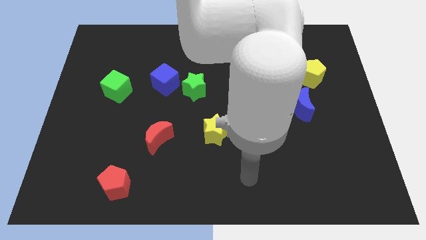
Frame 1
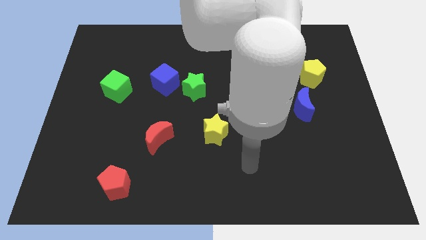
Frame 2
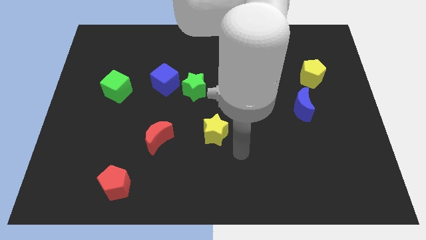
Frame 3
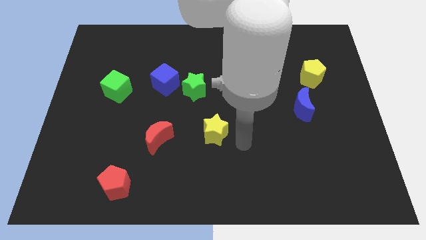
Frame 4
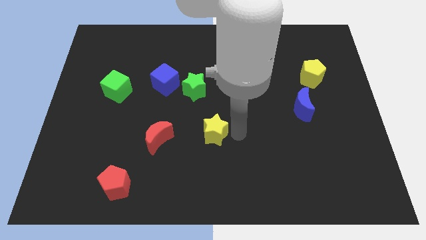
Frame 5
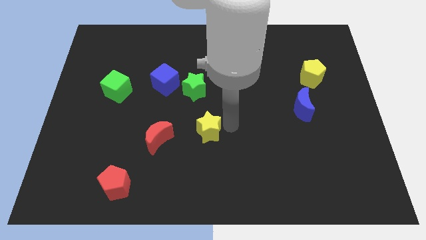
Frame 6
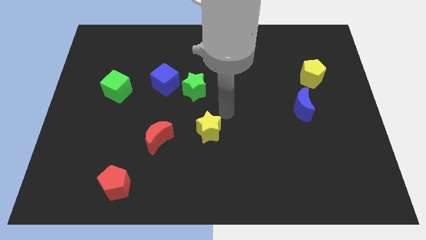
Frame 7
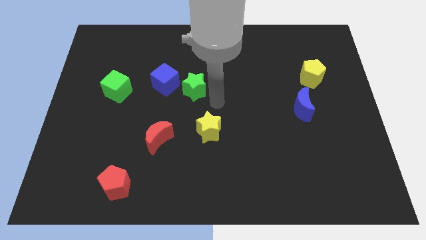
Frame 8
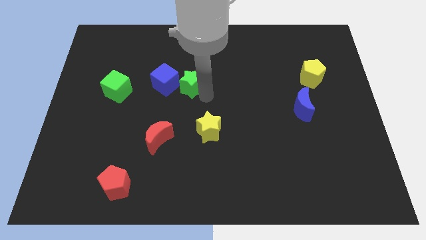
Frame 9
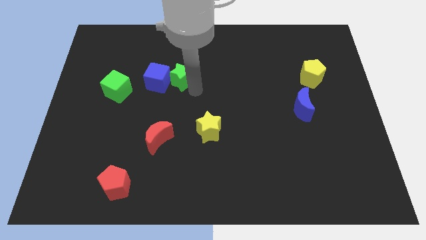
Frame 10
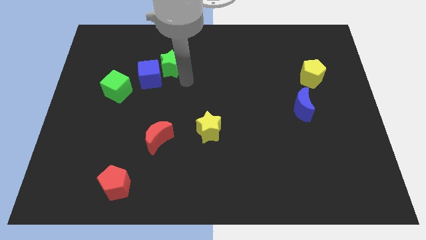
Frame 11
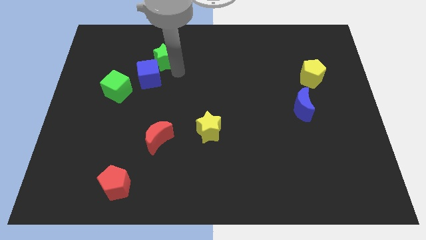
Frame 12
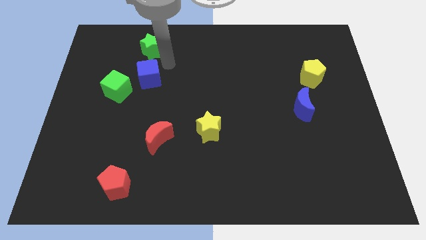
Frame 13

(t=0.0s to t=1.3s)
pull the blue cube apart from the green star

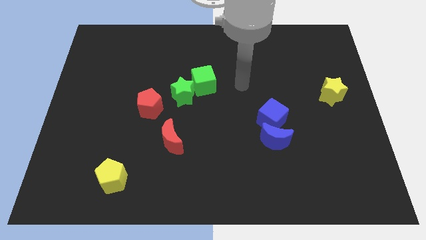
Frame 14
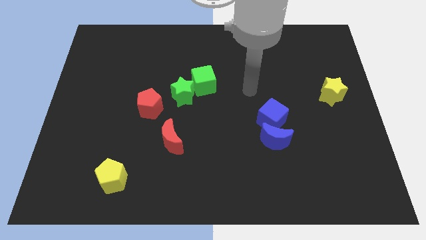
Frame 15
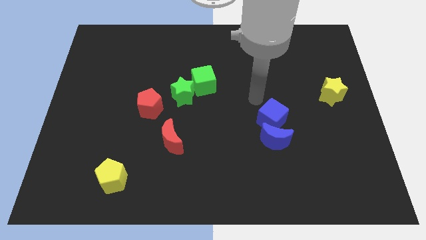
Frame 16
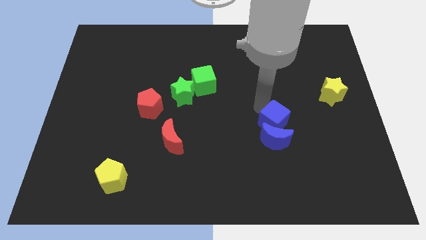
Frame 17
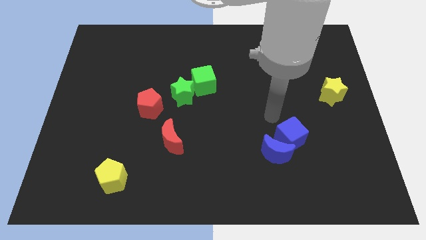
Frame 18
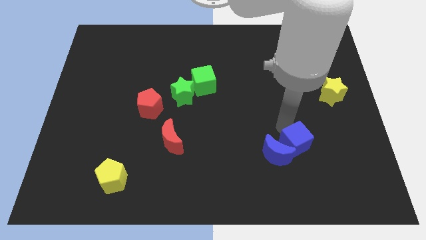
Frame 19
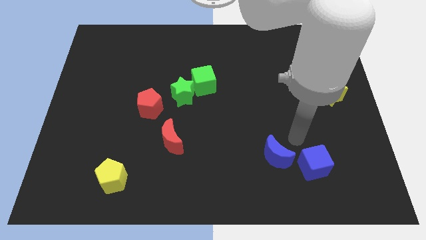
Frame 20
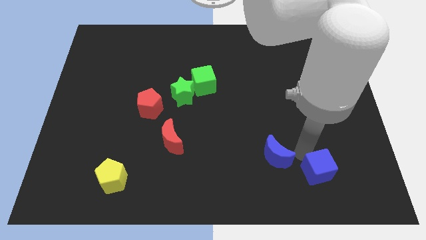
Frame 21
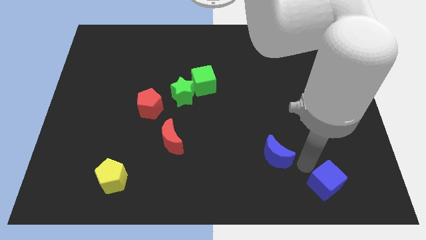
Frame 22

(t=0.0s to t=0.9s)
separate the blue moon from the blue cube

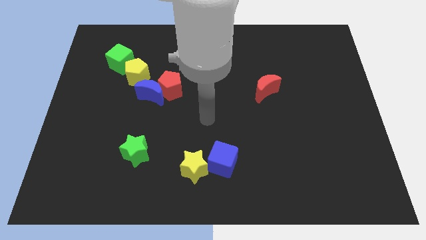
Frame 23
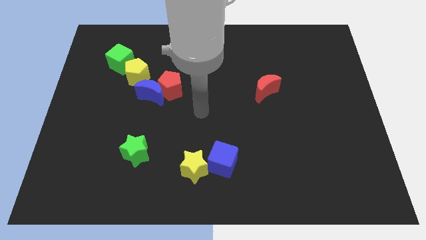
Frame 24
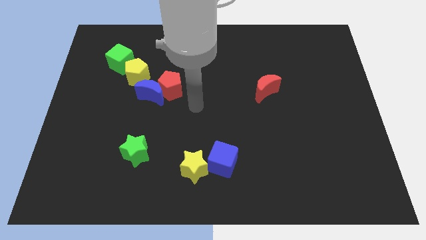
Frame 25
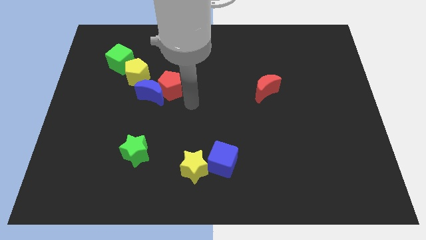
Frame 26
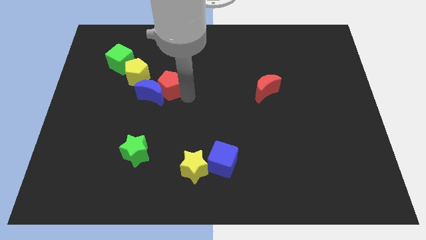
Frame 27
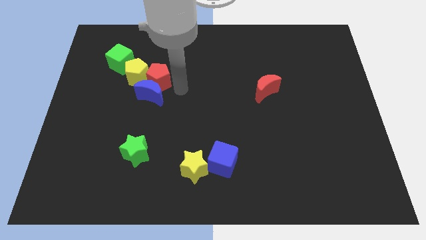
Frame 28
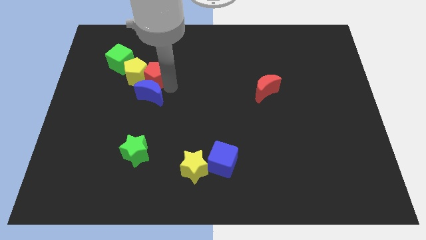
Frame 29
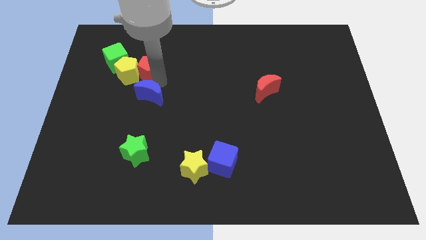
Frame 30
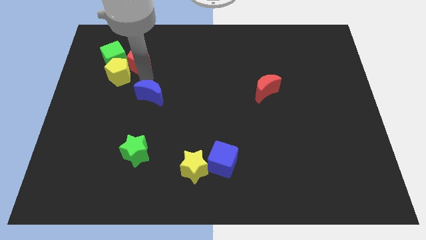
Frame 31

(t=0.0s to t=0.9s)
move the blue moon away from the red pentagon and yellow pentagon

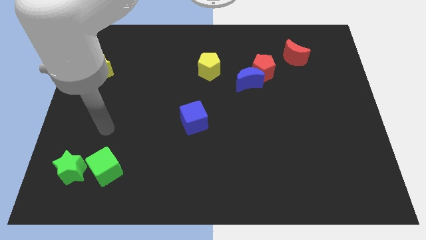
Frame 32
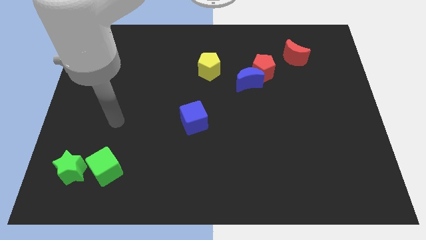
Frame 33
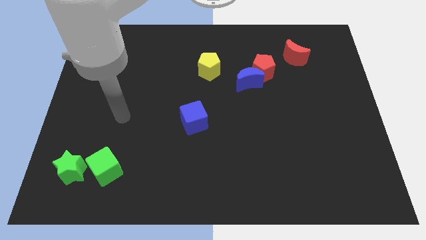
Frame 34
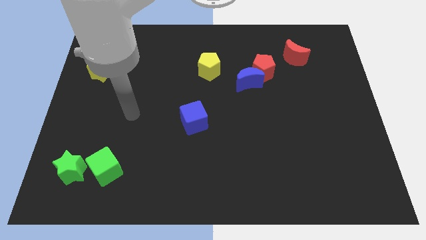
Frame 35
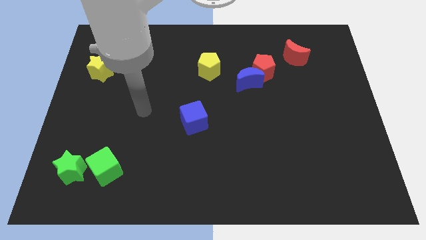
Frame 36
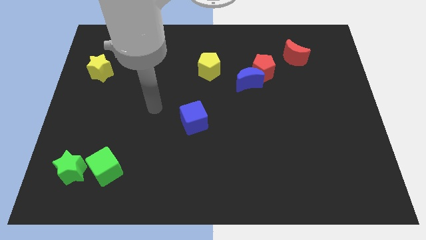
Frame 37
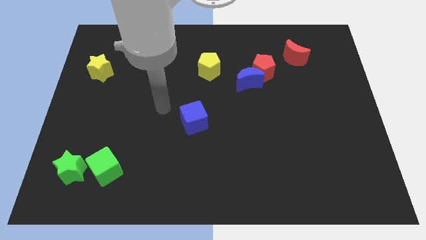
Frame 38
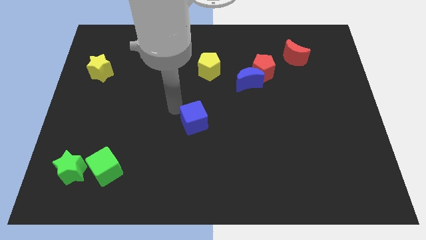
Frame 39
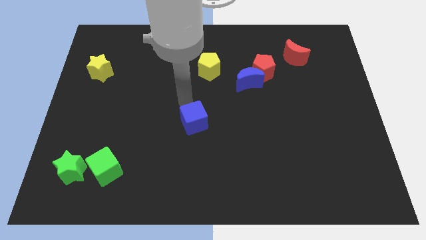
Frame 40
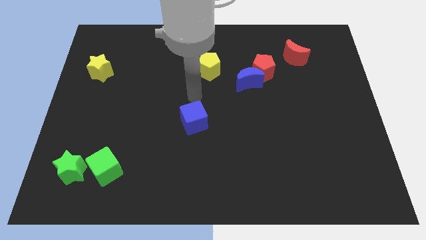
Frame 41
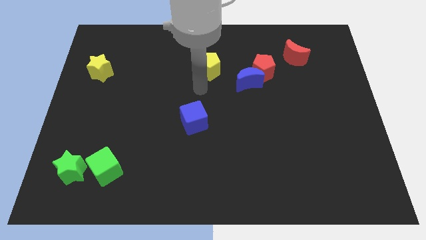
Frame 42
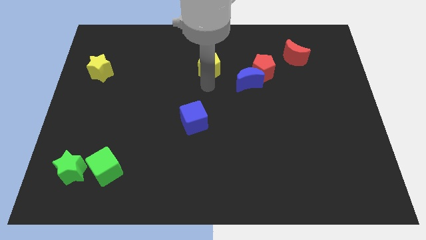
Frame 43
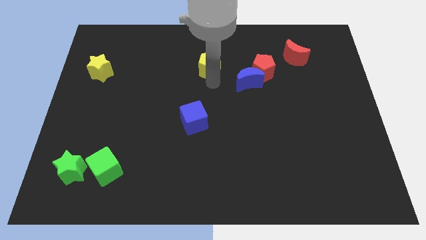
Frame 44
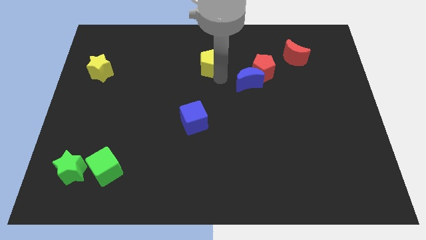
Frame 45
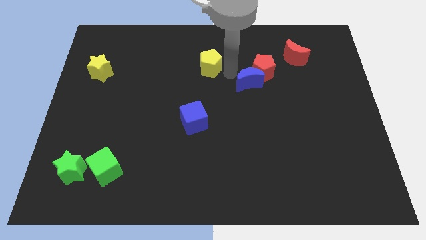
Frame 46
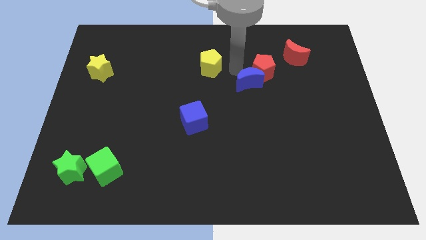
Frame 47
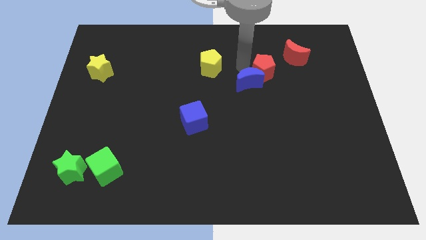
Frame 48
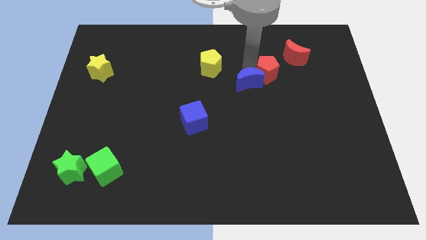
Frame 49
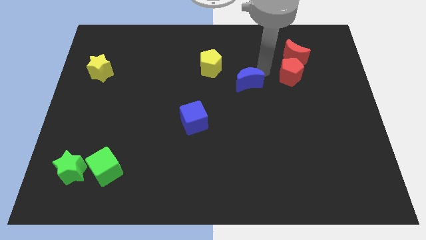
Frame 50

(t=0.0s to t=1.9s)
move the blue moon away from the red pentagon

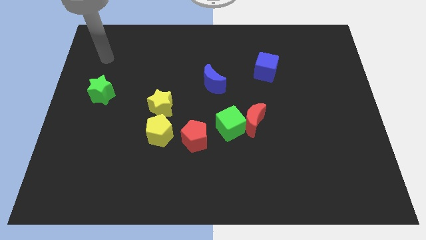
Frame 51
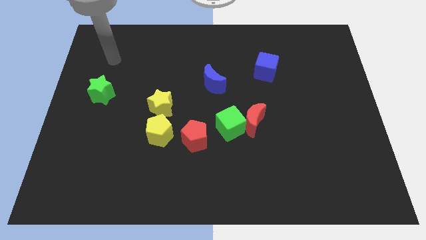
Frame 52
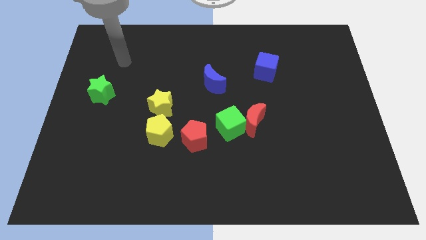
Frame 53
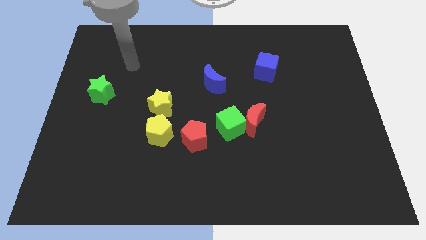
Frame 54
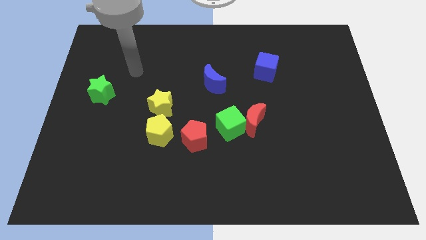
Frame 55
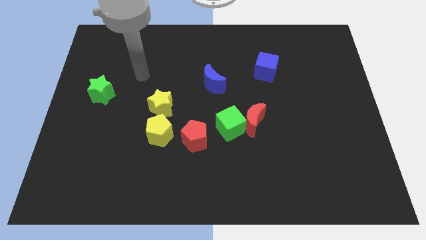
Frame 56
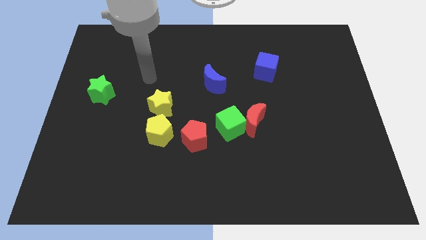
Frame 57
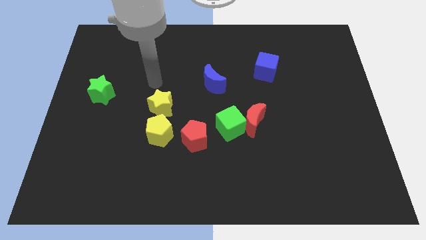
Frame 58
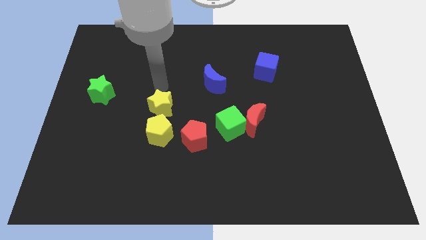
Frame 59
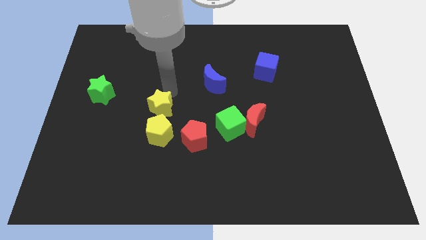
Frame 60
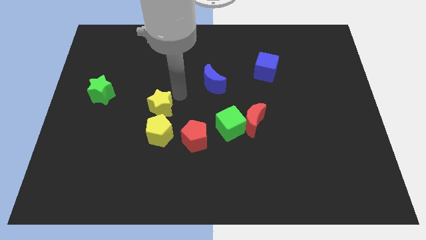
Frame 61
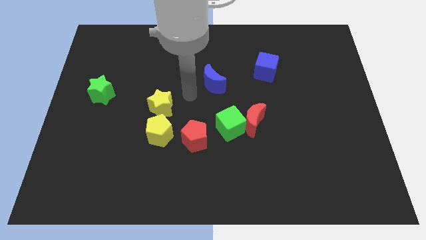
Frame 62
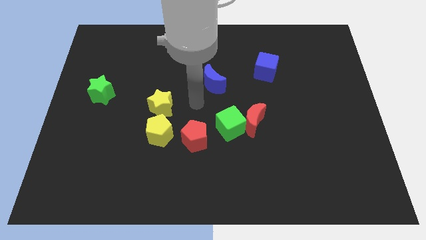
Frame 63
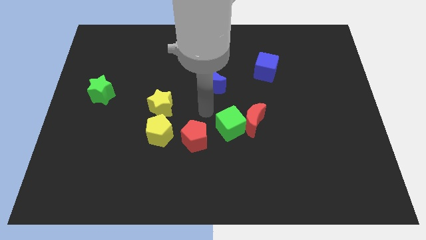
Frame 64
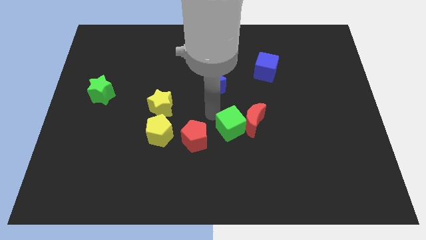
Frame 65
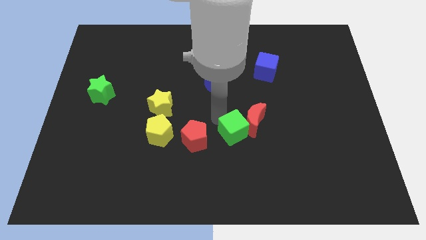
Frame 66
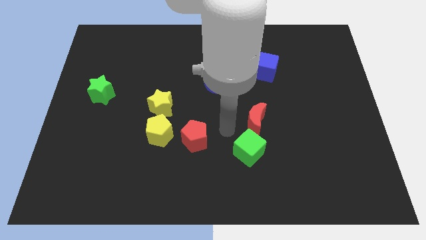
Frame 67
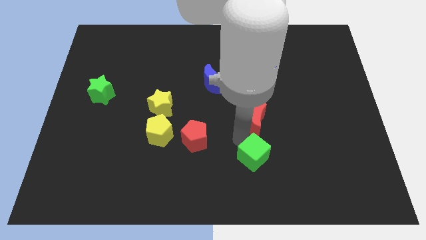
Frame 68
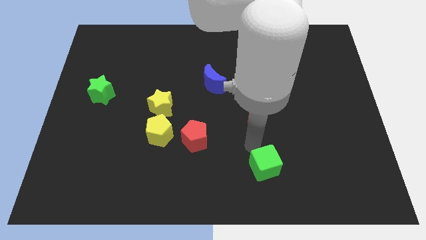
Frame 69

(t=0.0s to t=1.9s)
pull the red moon apart from the green cube

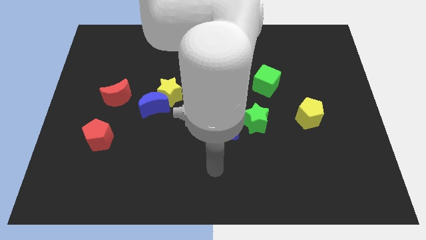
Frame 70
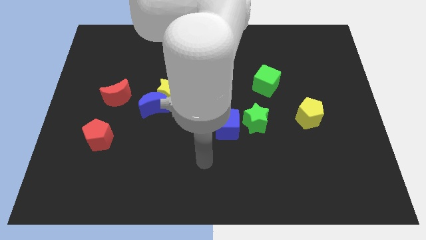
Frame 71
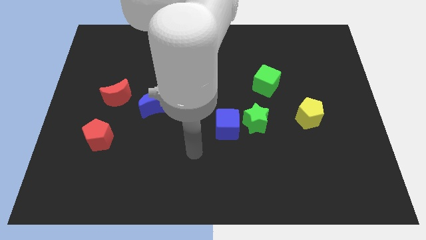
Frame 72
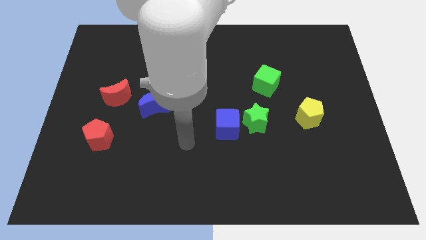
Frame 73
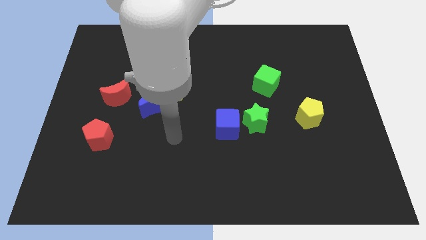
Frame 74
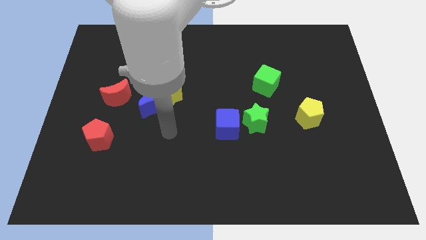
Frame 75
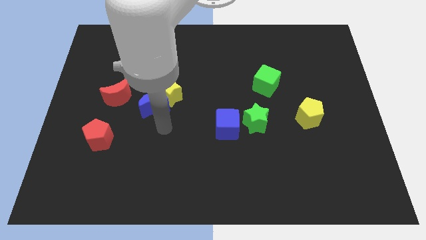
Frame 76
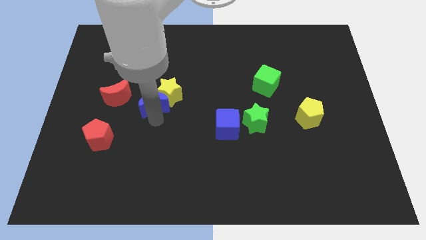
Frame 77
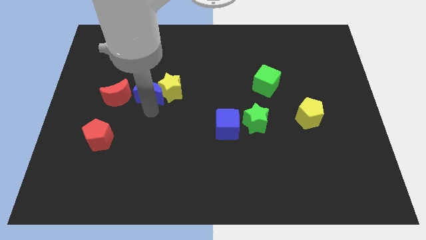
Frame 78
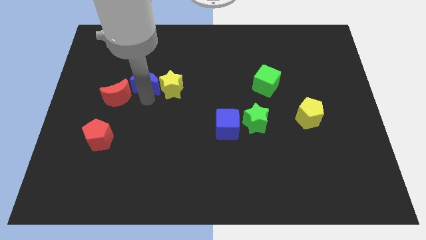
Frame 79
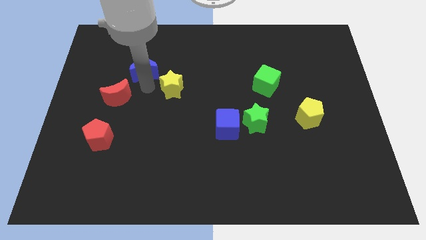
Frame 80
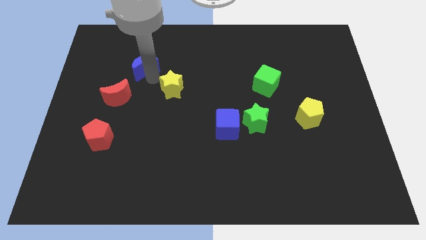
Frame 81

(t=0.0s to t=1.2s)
move the yellow star away from the blue moon

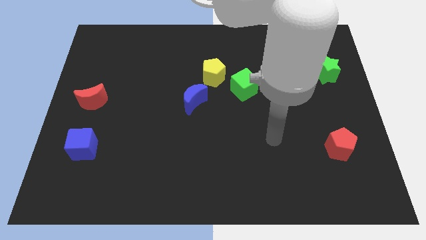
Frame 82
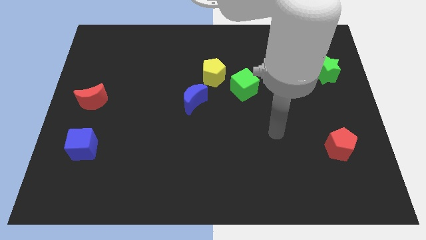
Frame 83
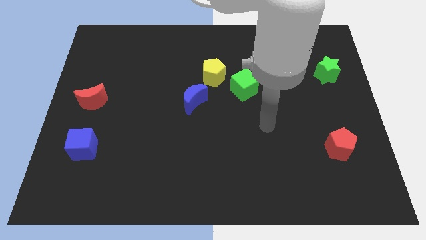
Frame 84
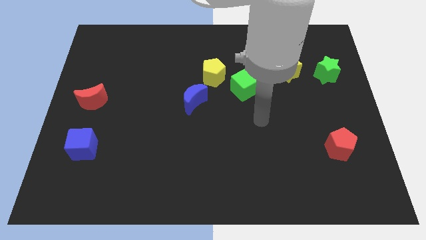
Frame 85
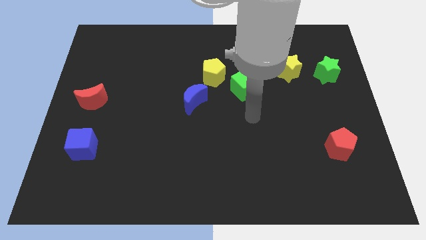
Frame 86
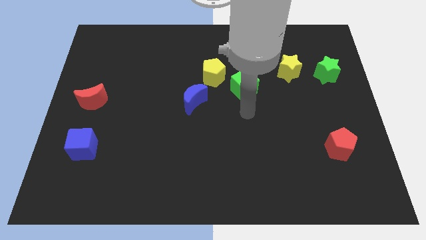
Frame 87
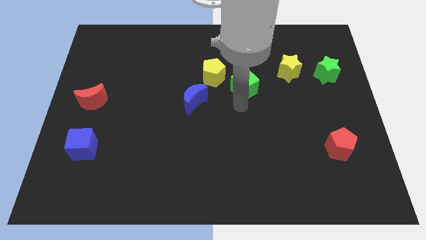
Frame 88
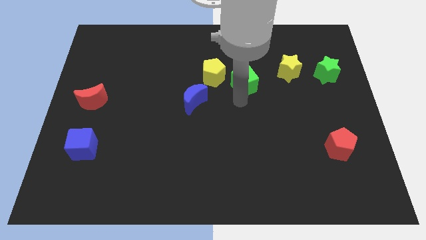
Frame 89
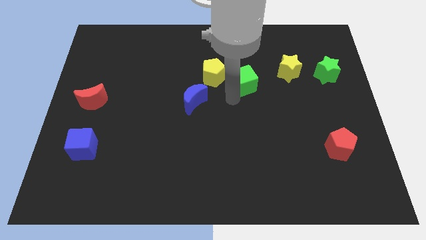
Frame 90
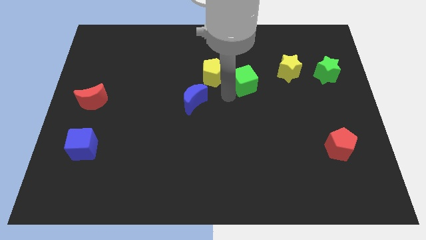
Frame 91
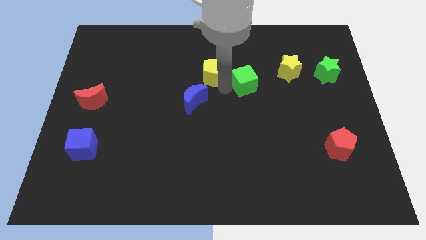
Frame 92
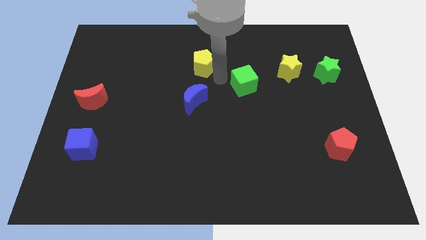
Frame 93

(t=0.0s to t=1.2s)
separate the green cube from the yellow pentagon
